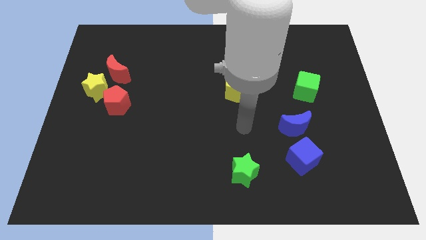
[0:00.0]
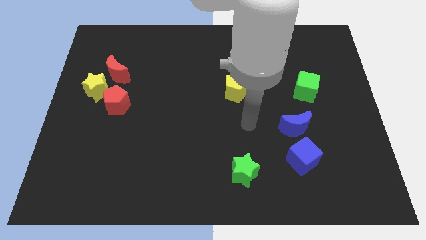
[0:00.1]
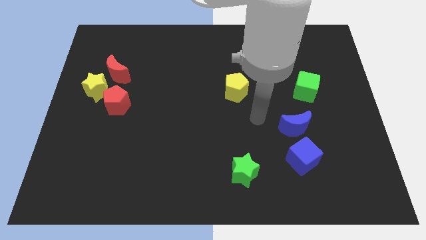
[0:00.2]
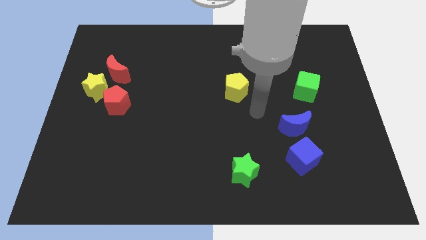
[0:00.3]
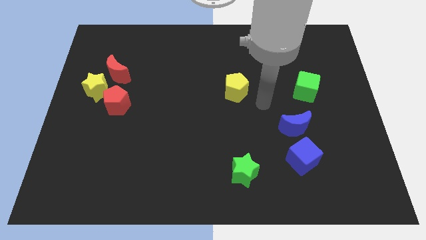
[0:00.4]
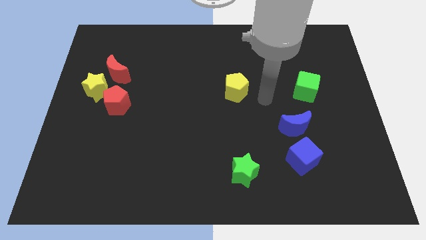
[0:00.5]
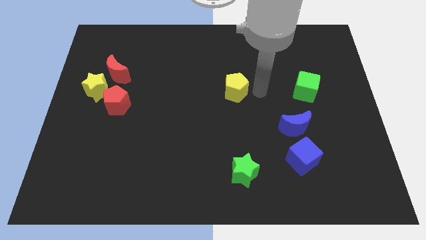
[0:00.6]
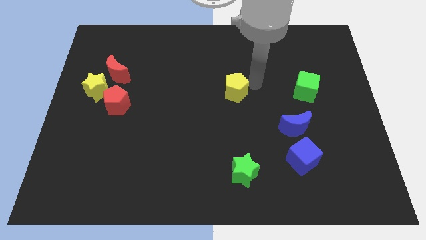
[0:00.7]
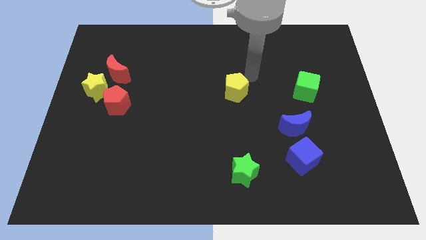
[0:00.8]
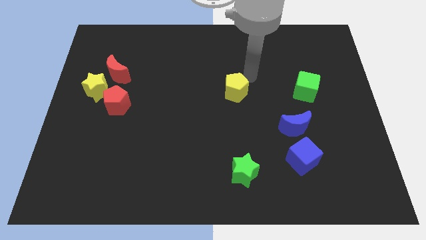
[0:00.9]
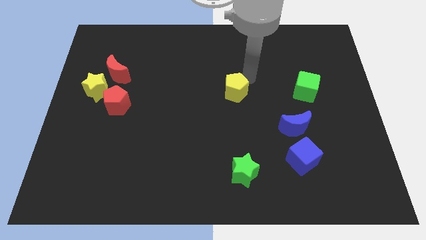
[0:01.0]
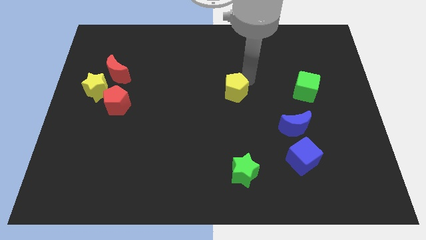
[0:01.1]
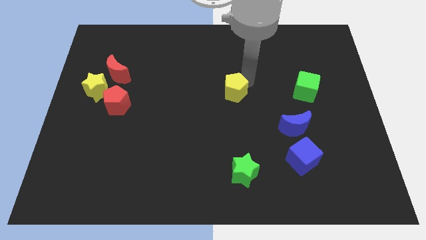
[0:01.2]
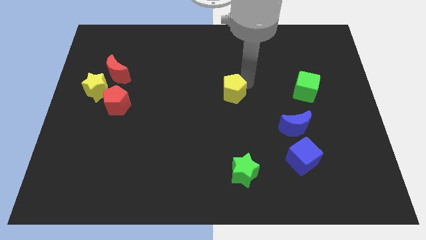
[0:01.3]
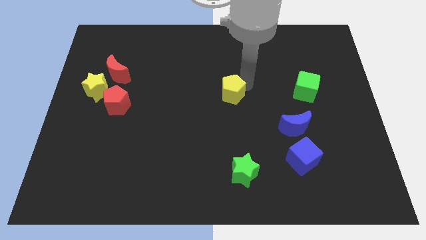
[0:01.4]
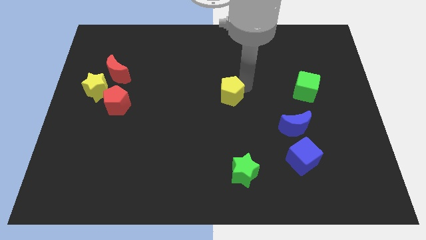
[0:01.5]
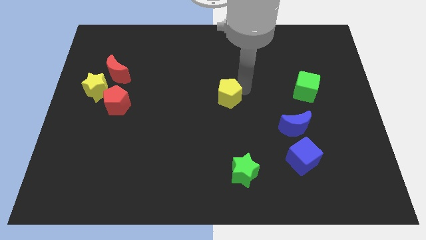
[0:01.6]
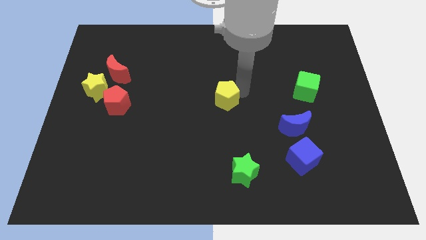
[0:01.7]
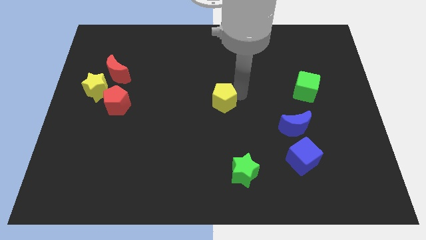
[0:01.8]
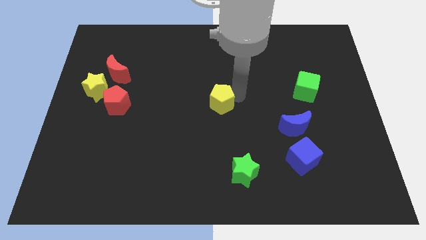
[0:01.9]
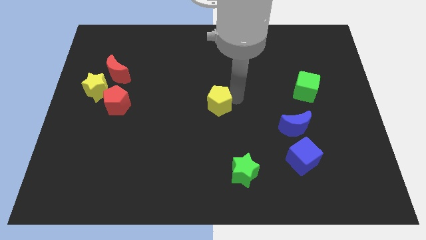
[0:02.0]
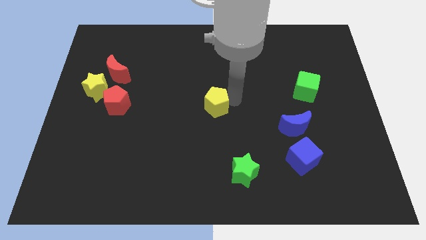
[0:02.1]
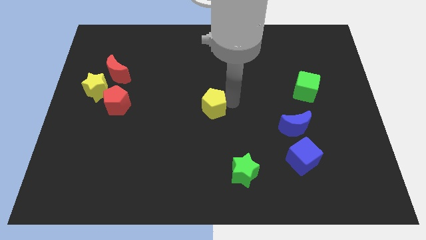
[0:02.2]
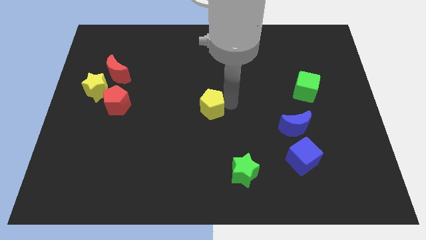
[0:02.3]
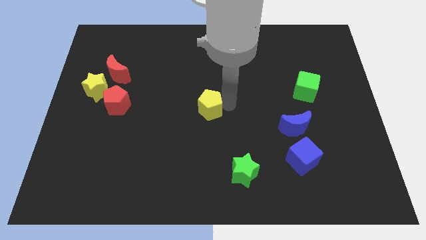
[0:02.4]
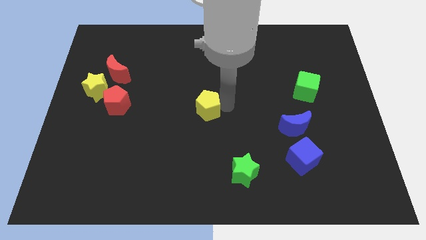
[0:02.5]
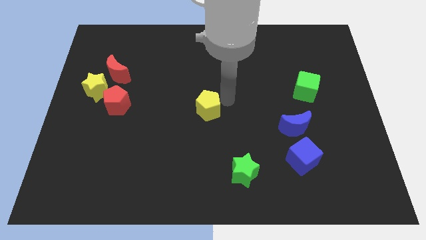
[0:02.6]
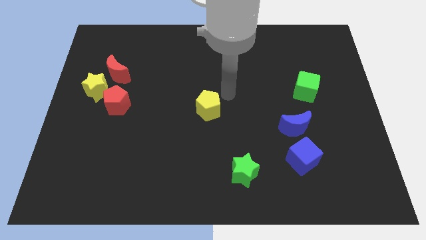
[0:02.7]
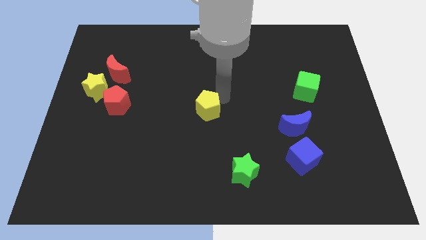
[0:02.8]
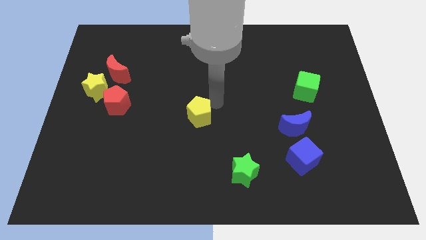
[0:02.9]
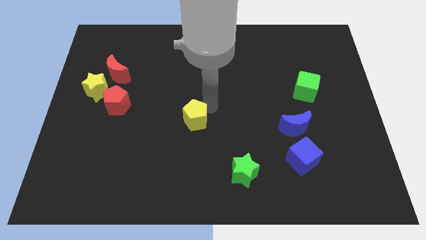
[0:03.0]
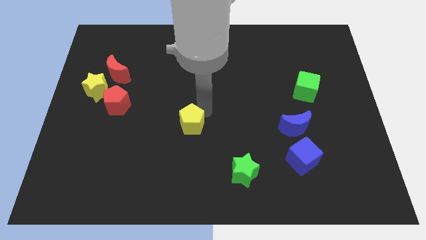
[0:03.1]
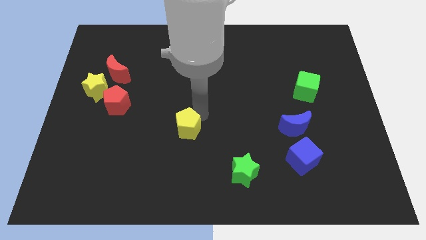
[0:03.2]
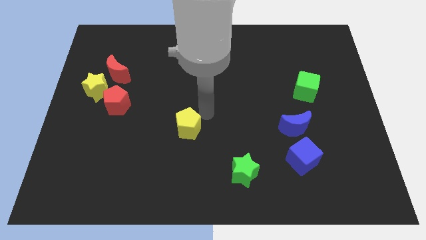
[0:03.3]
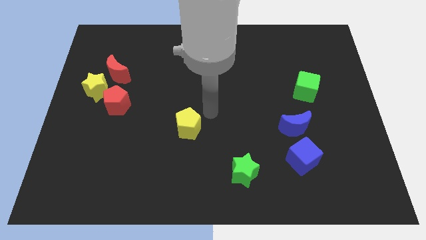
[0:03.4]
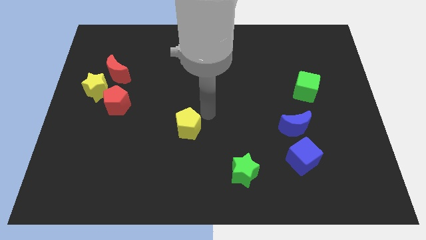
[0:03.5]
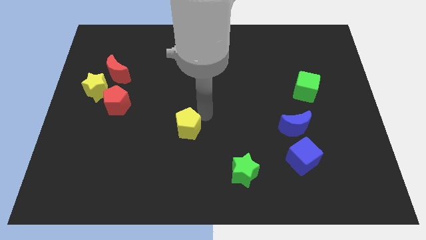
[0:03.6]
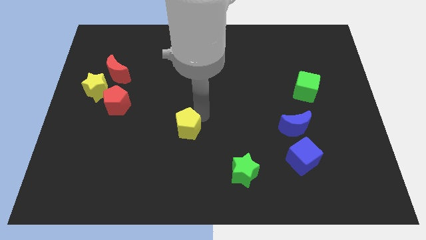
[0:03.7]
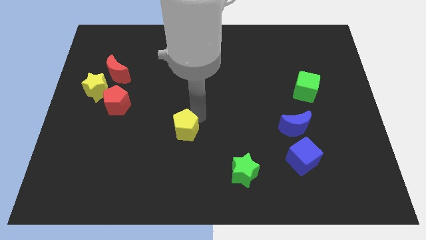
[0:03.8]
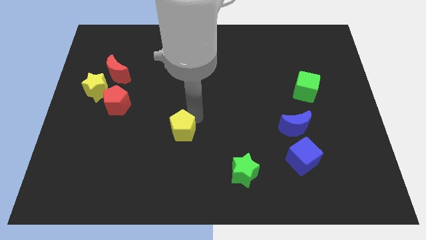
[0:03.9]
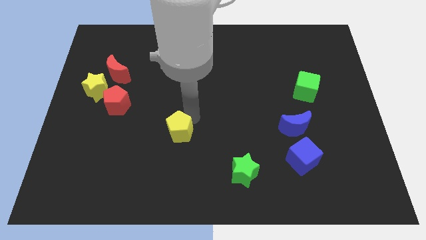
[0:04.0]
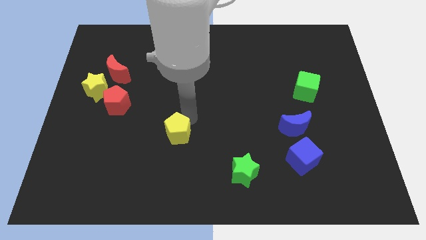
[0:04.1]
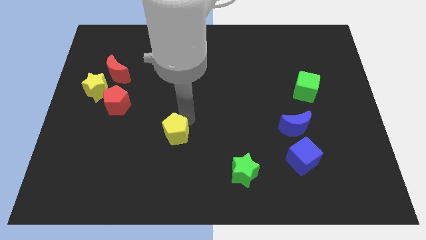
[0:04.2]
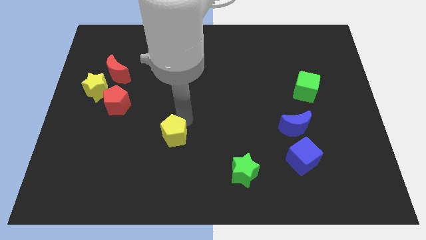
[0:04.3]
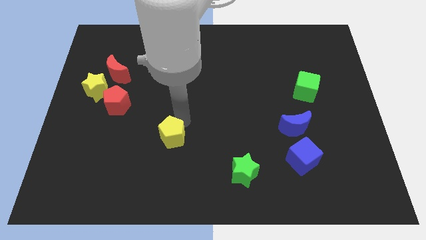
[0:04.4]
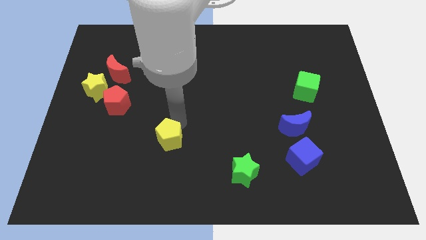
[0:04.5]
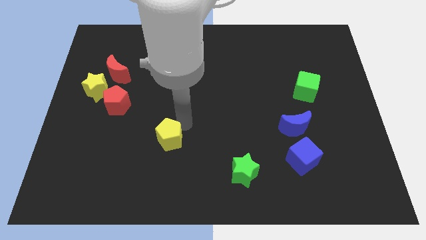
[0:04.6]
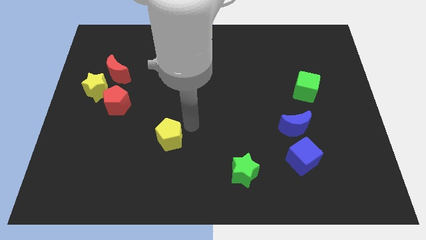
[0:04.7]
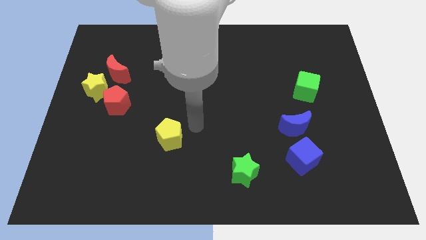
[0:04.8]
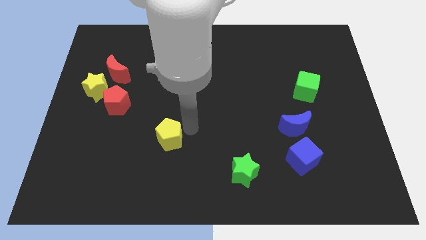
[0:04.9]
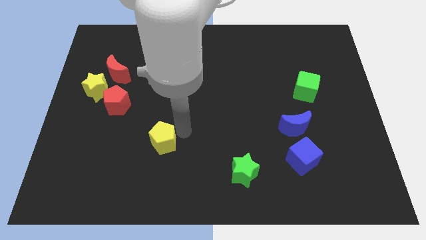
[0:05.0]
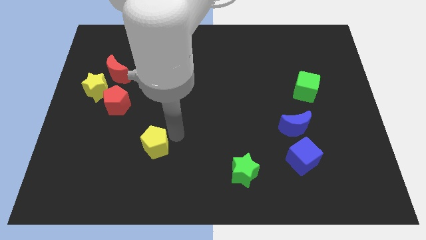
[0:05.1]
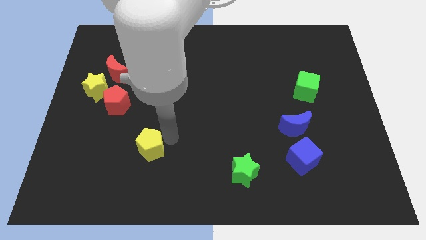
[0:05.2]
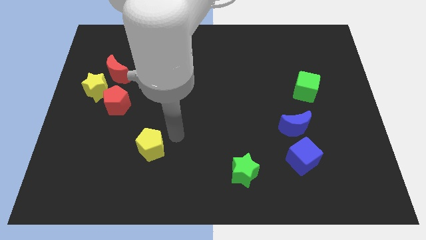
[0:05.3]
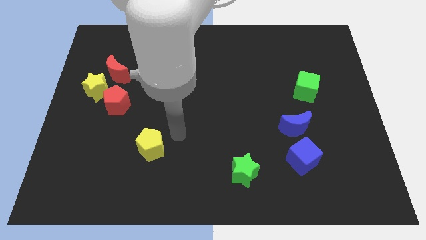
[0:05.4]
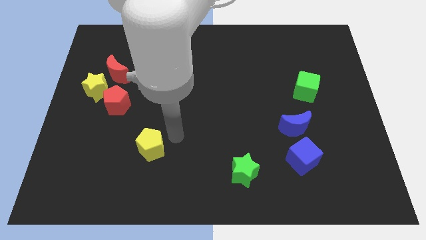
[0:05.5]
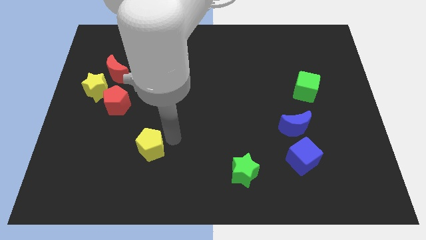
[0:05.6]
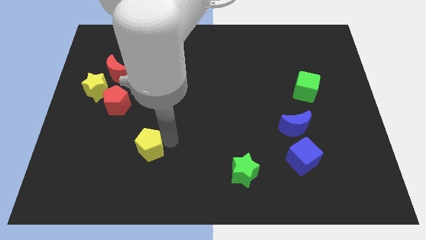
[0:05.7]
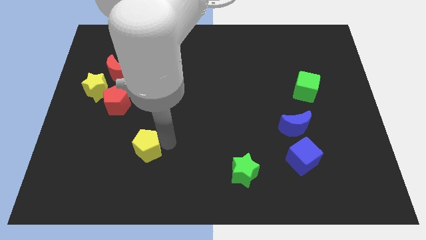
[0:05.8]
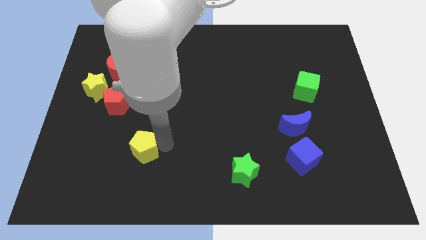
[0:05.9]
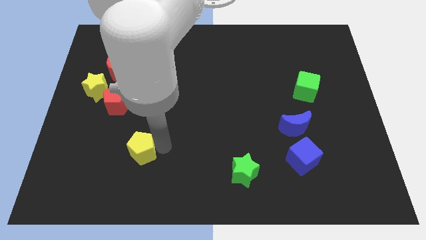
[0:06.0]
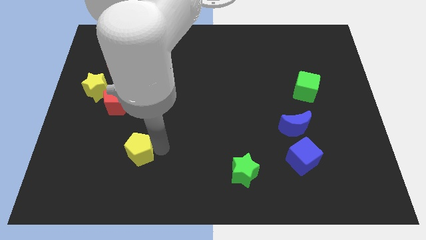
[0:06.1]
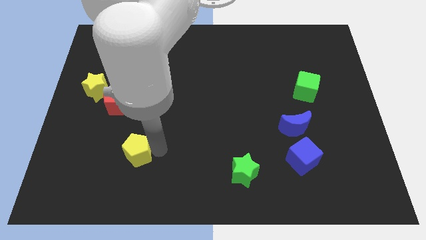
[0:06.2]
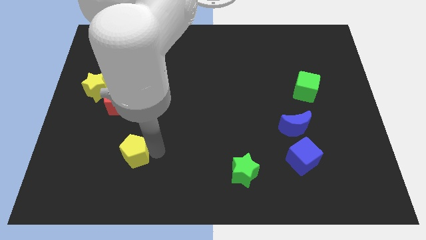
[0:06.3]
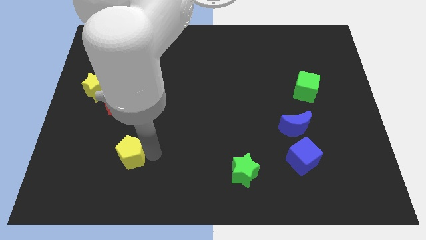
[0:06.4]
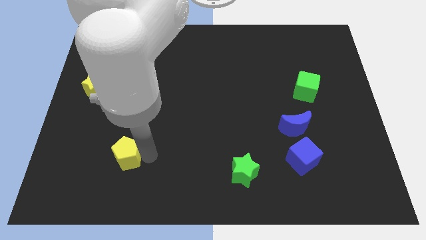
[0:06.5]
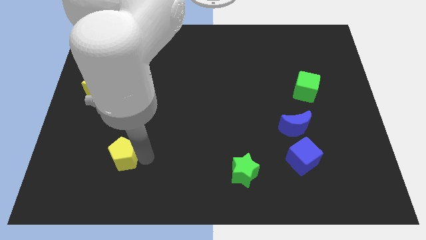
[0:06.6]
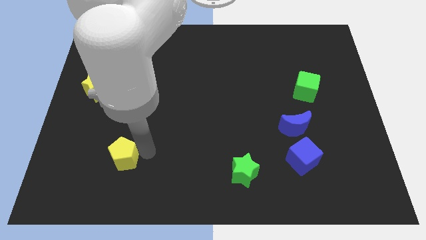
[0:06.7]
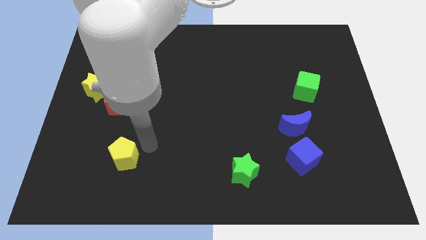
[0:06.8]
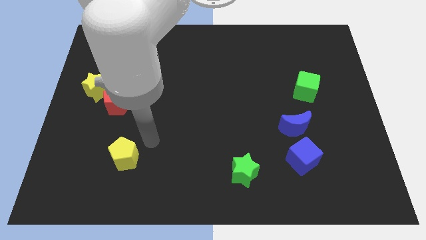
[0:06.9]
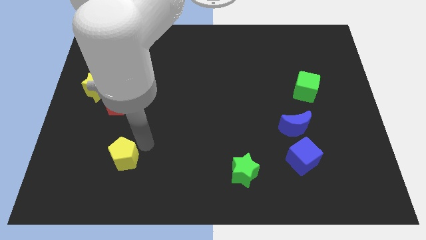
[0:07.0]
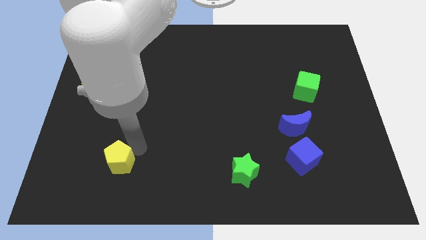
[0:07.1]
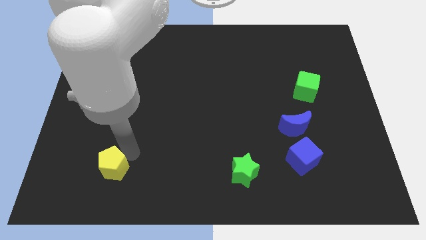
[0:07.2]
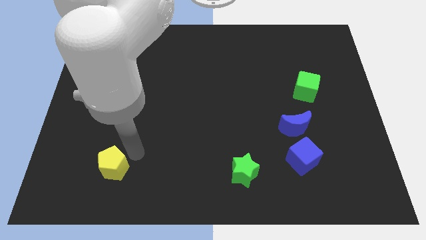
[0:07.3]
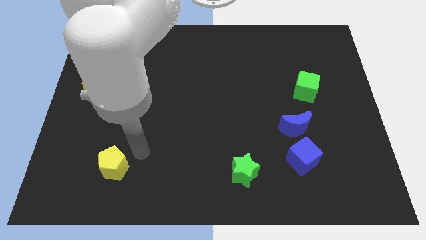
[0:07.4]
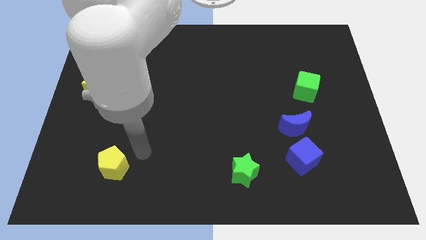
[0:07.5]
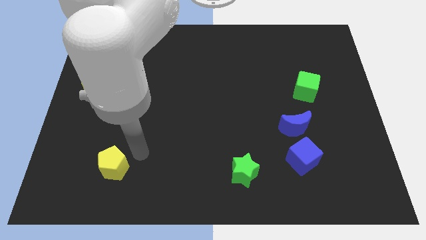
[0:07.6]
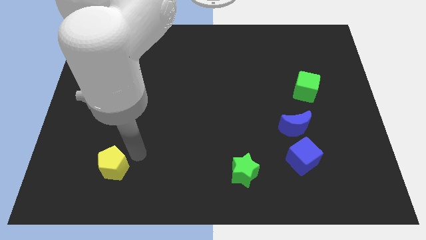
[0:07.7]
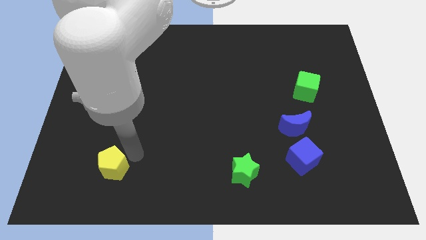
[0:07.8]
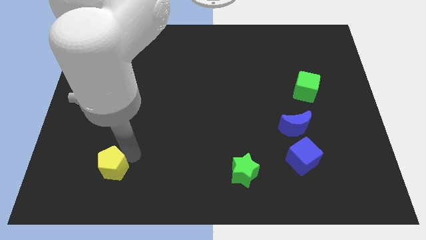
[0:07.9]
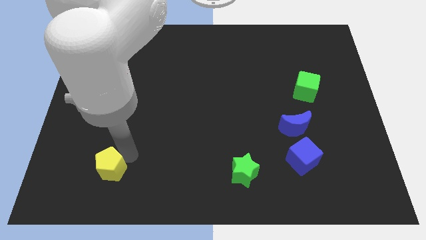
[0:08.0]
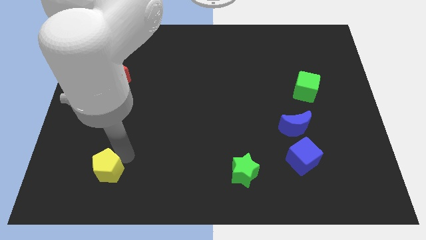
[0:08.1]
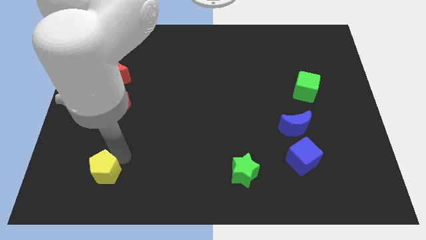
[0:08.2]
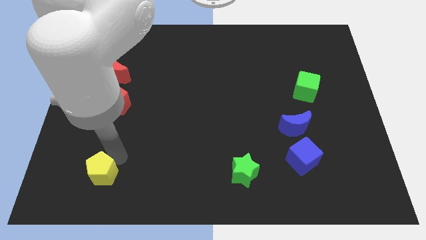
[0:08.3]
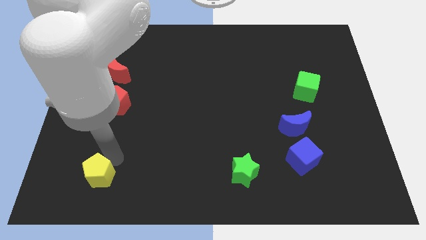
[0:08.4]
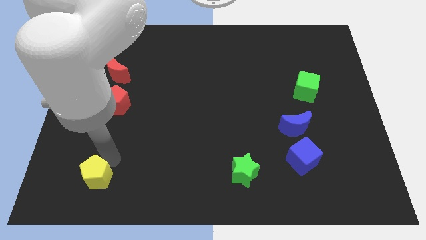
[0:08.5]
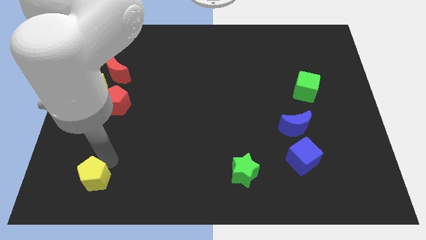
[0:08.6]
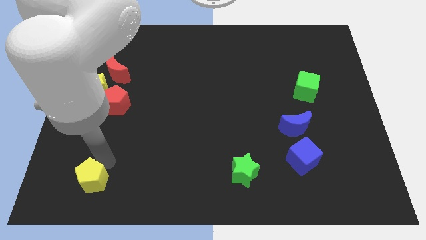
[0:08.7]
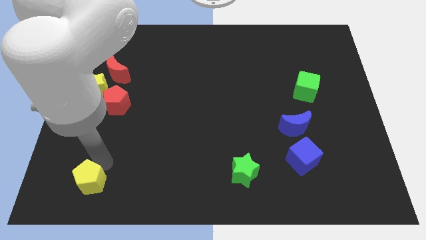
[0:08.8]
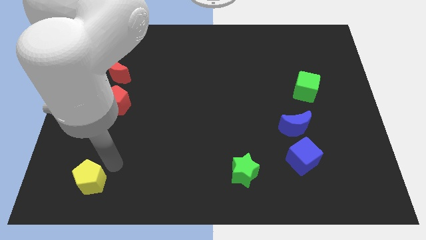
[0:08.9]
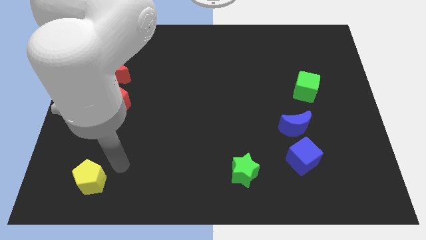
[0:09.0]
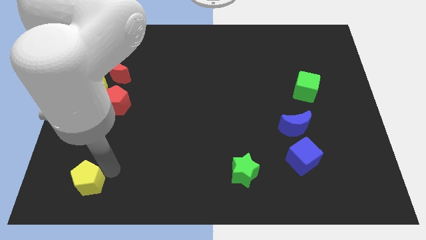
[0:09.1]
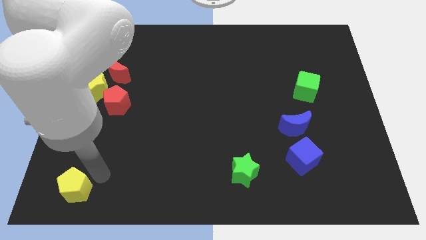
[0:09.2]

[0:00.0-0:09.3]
move the yellow pentagon to the bottom left of the board
